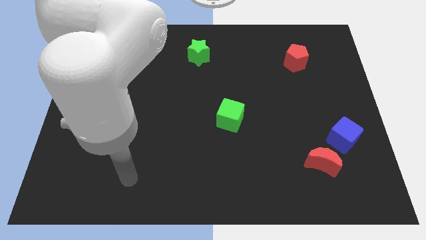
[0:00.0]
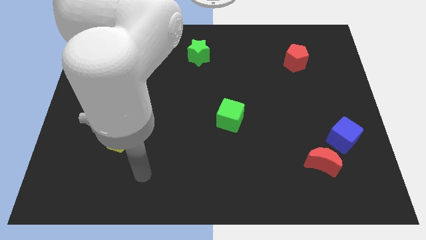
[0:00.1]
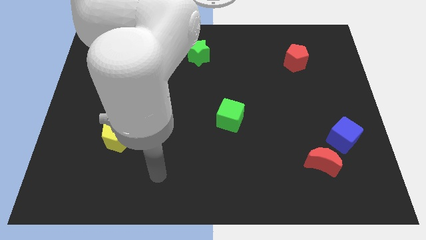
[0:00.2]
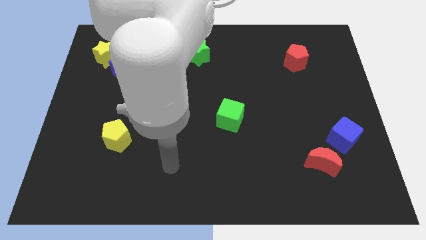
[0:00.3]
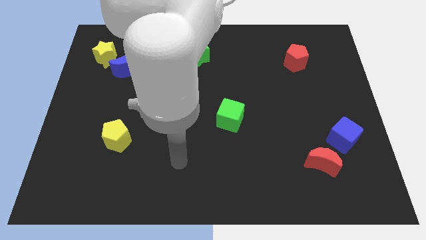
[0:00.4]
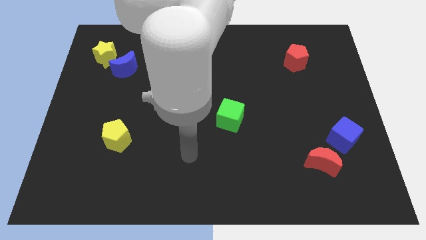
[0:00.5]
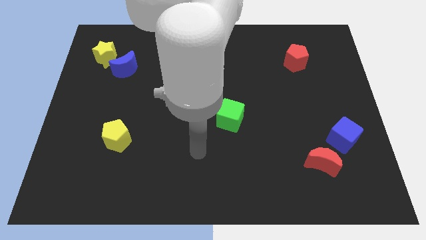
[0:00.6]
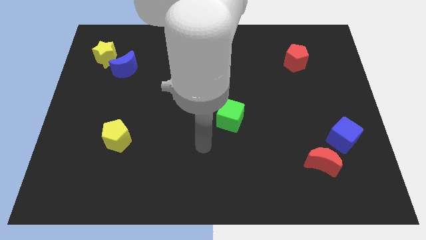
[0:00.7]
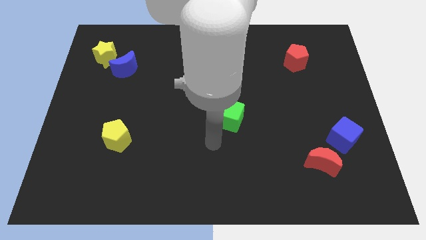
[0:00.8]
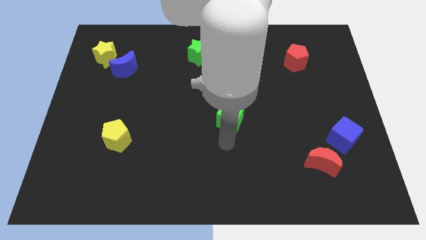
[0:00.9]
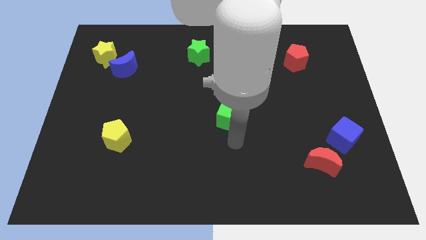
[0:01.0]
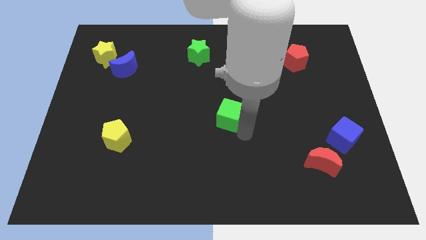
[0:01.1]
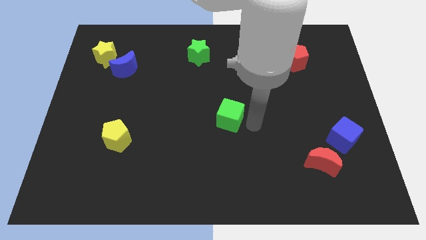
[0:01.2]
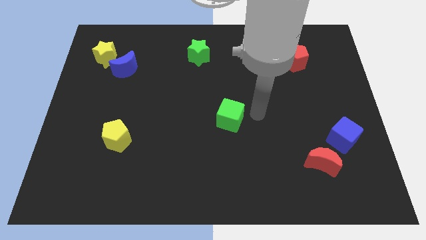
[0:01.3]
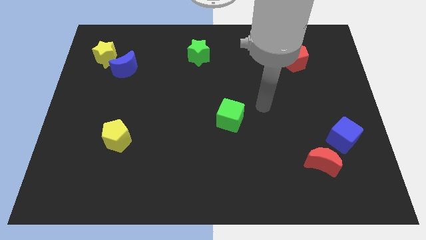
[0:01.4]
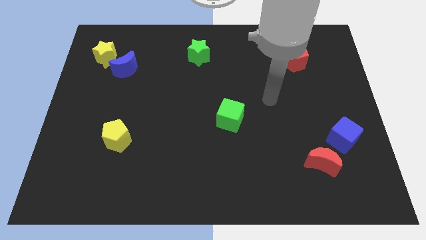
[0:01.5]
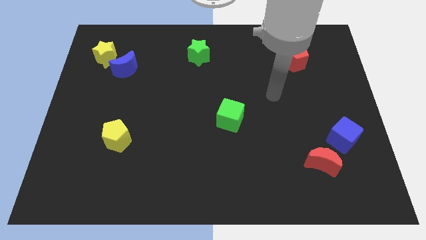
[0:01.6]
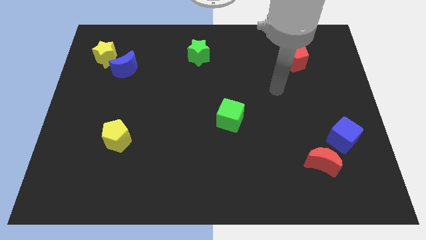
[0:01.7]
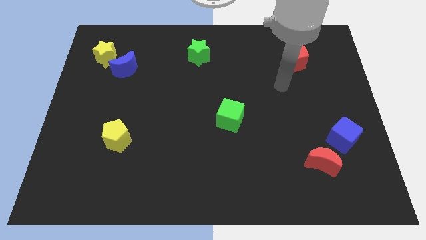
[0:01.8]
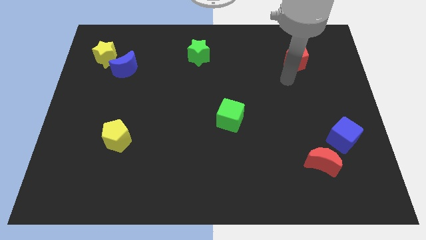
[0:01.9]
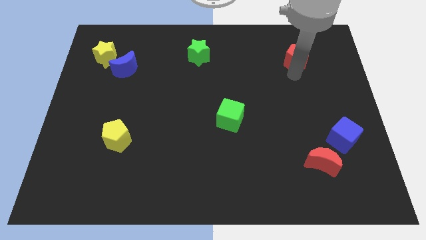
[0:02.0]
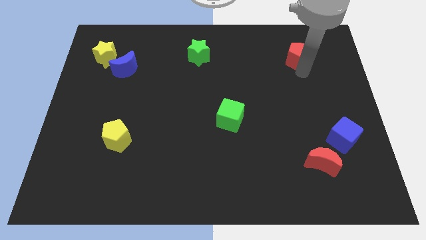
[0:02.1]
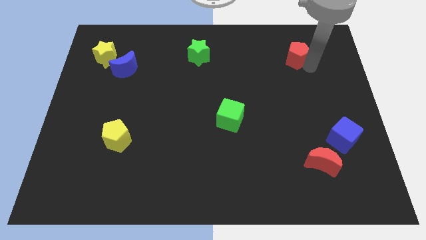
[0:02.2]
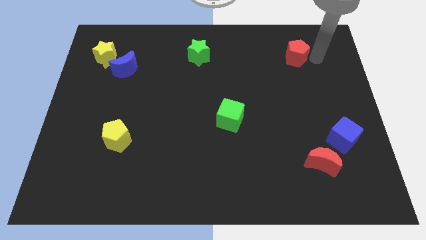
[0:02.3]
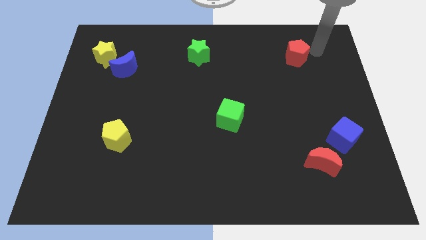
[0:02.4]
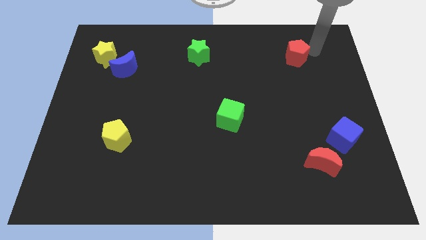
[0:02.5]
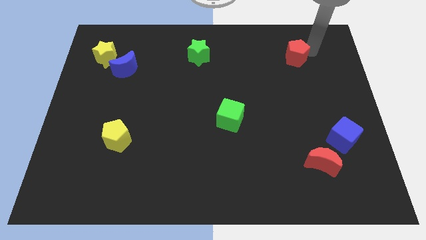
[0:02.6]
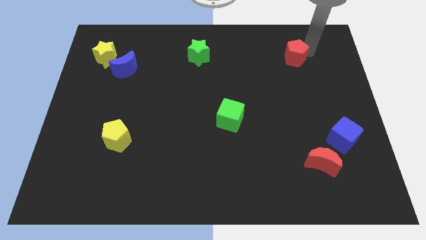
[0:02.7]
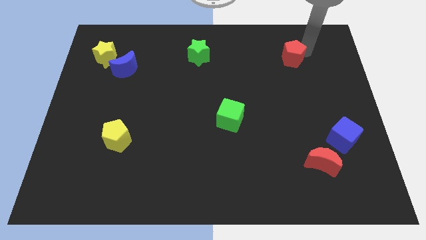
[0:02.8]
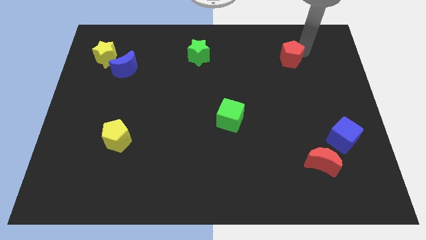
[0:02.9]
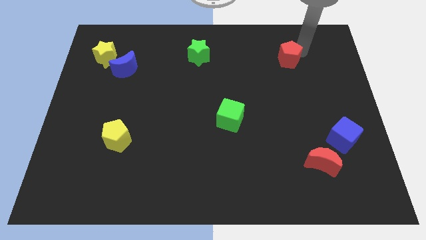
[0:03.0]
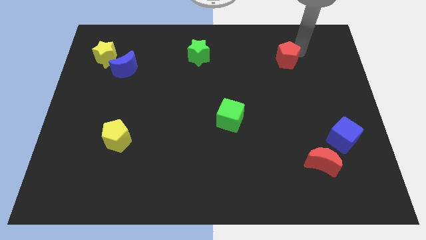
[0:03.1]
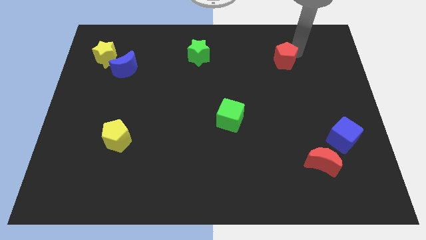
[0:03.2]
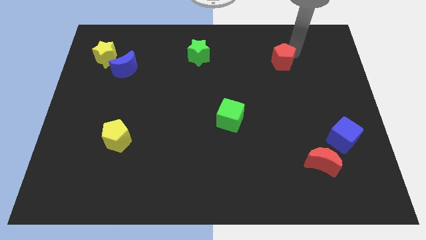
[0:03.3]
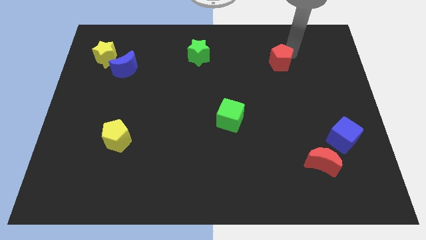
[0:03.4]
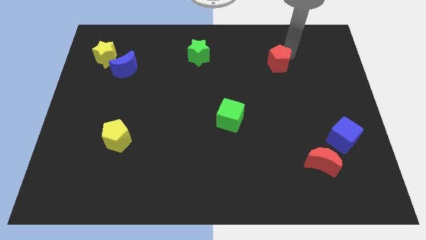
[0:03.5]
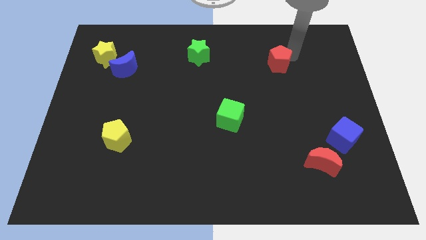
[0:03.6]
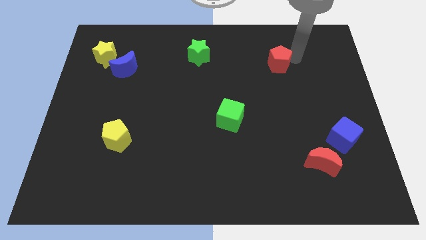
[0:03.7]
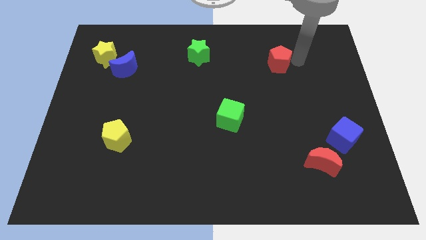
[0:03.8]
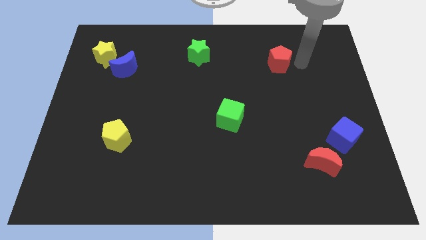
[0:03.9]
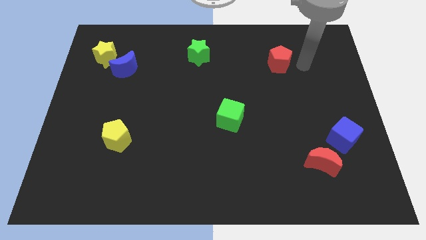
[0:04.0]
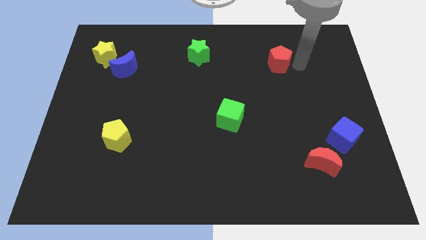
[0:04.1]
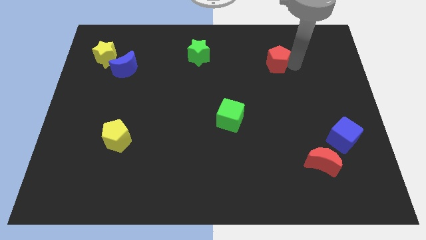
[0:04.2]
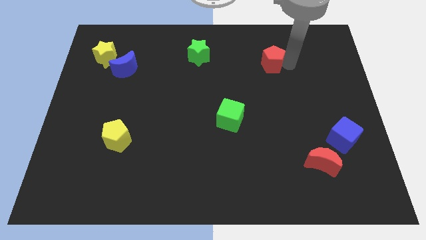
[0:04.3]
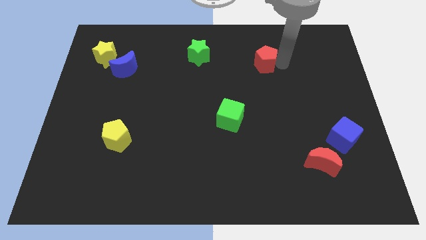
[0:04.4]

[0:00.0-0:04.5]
slightly slide the red pentagon left

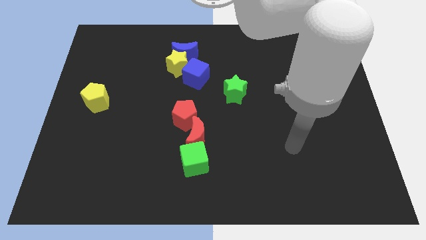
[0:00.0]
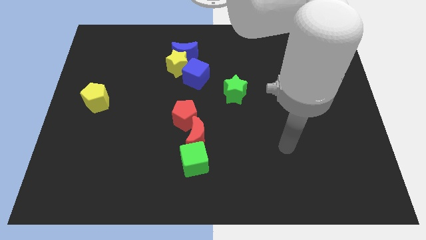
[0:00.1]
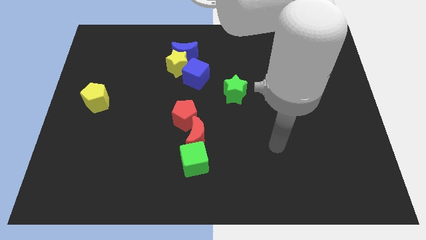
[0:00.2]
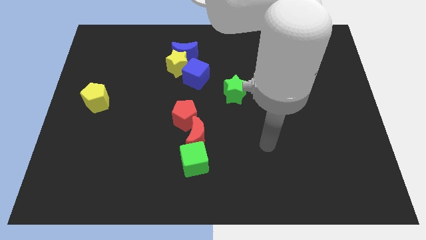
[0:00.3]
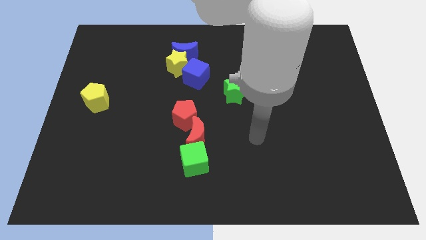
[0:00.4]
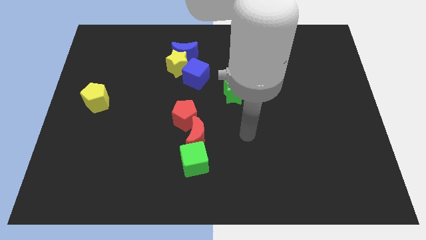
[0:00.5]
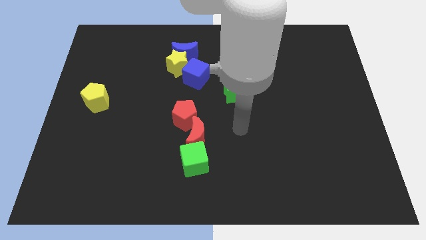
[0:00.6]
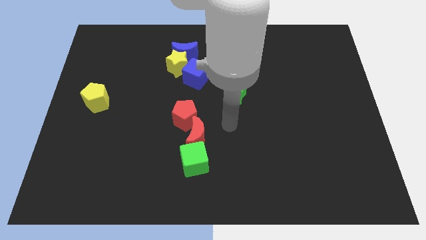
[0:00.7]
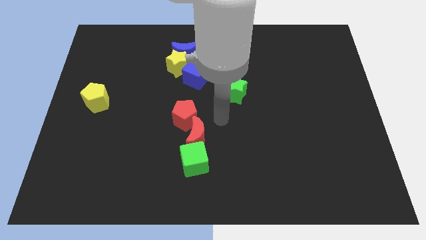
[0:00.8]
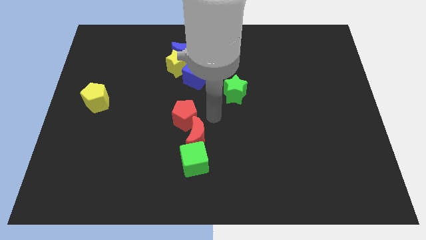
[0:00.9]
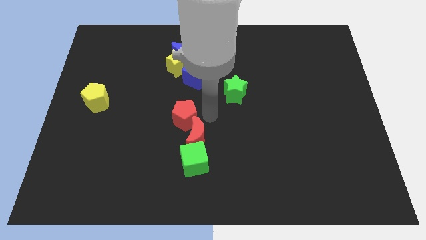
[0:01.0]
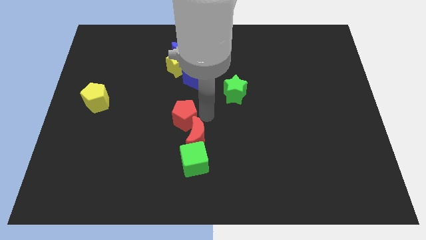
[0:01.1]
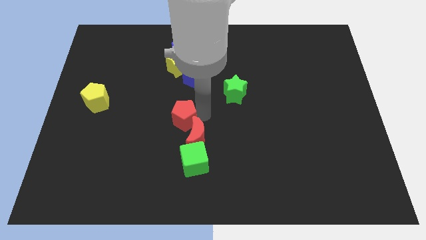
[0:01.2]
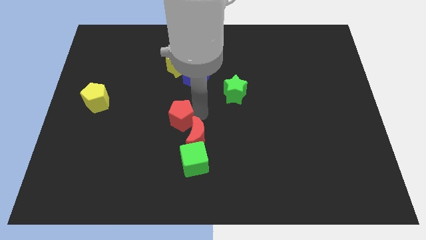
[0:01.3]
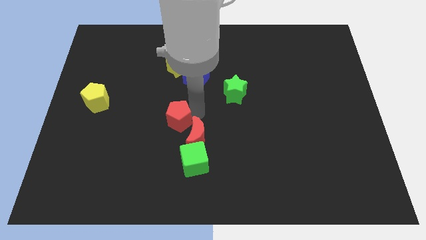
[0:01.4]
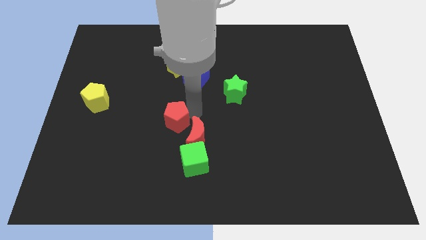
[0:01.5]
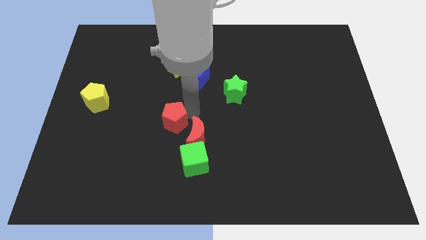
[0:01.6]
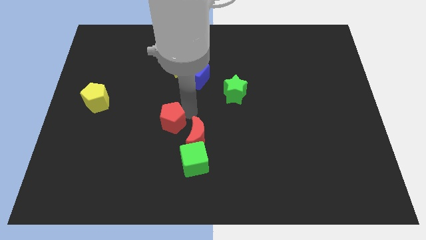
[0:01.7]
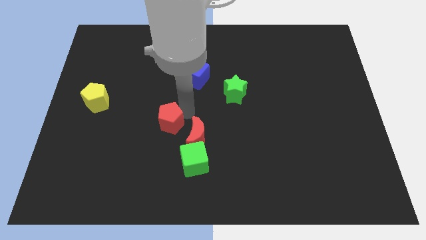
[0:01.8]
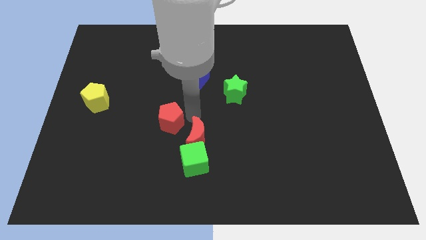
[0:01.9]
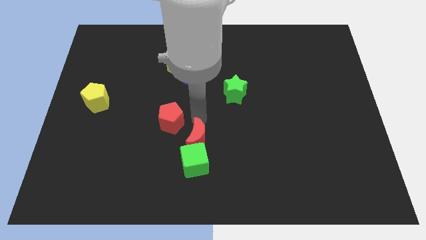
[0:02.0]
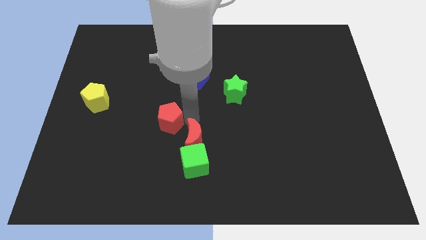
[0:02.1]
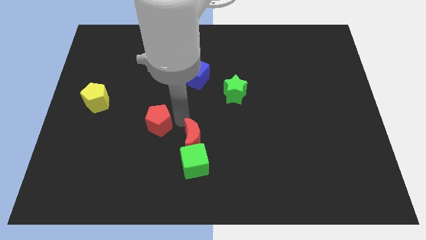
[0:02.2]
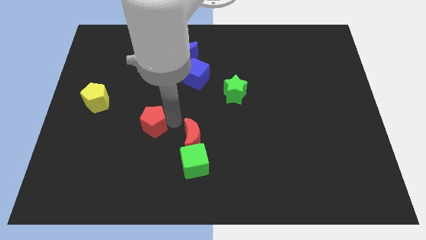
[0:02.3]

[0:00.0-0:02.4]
push the red pentagon slightly left

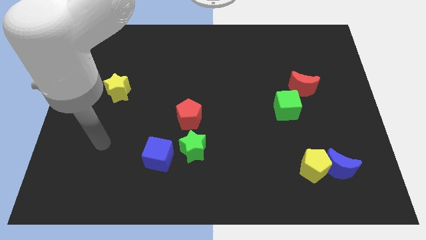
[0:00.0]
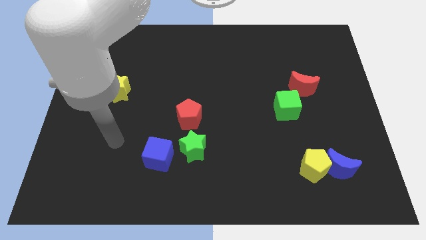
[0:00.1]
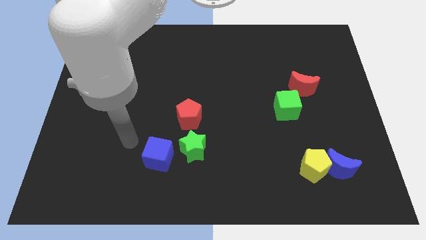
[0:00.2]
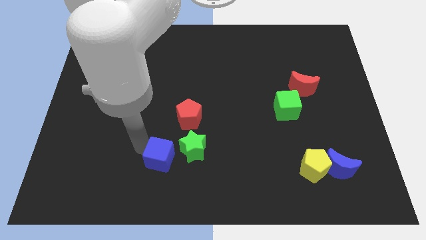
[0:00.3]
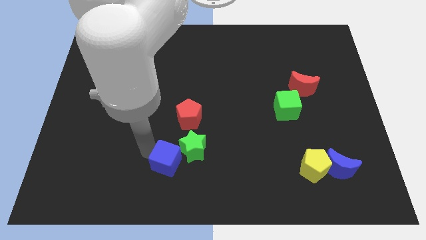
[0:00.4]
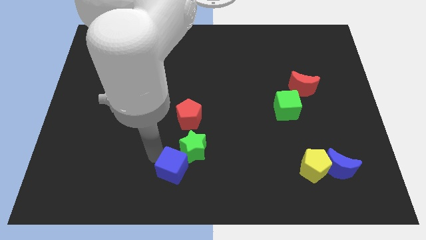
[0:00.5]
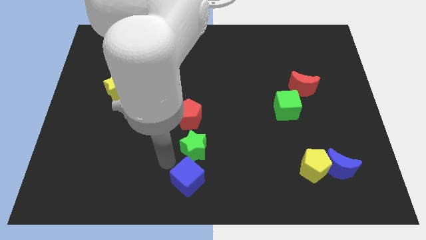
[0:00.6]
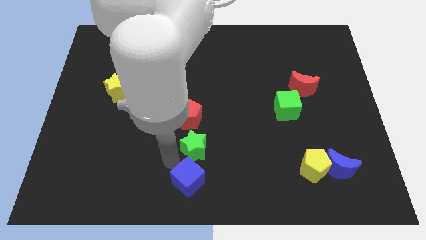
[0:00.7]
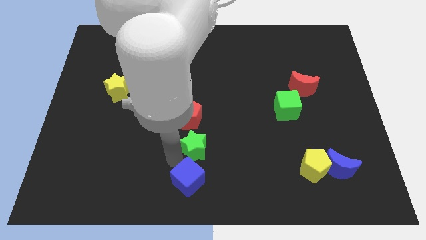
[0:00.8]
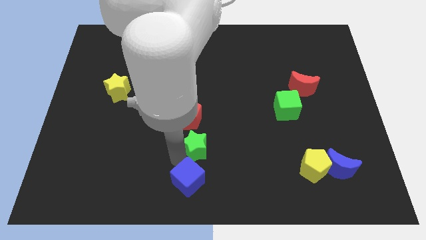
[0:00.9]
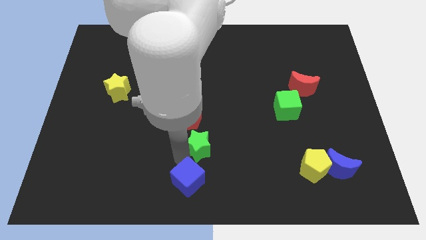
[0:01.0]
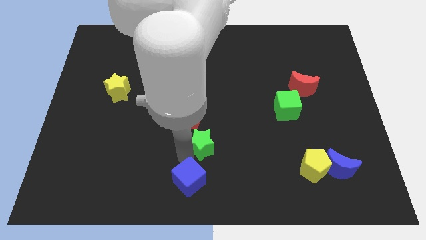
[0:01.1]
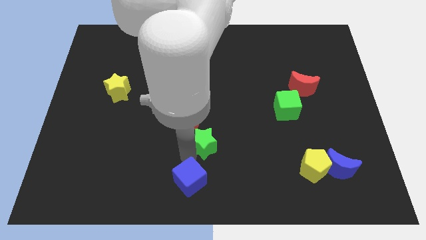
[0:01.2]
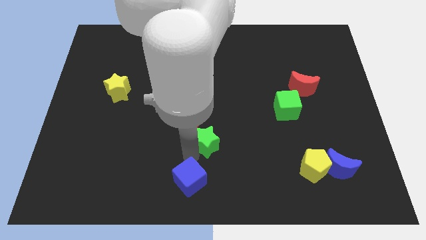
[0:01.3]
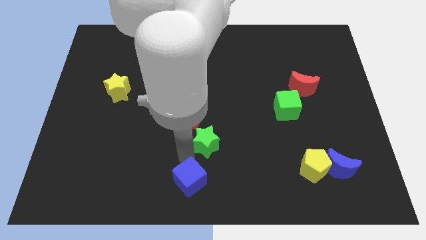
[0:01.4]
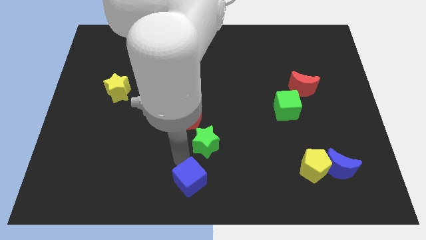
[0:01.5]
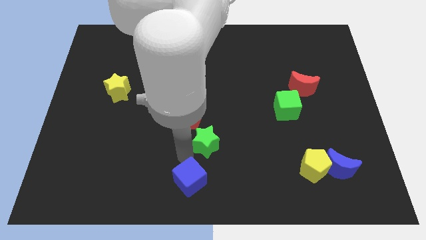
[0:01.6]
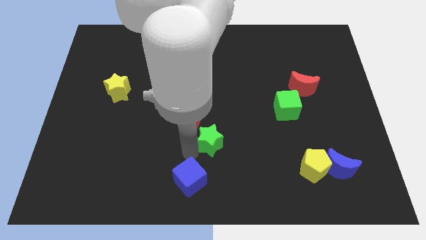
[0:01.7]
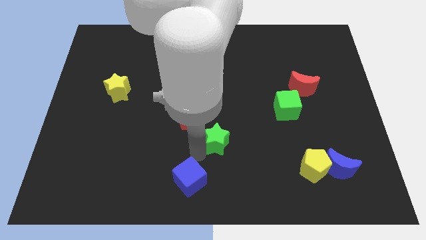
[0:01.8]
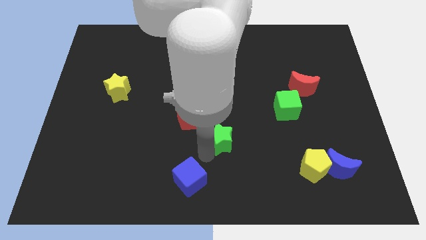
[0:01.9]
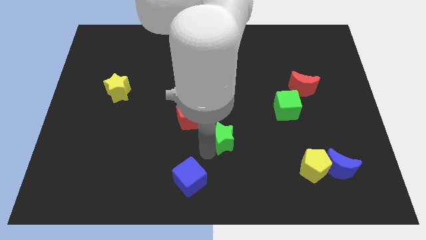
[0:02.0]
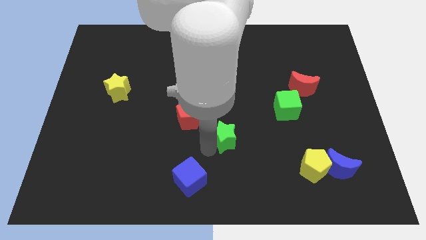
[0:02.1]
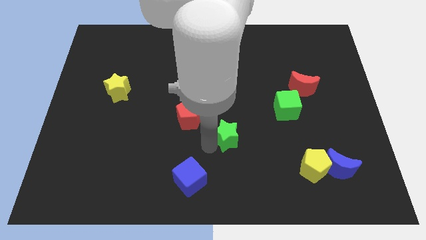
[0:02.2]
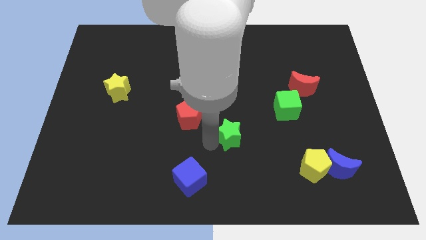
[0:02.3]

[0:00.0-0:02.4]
slide the green star a little bit upwards and right diagonally
